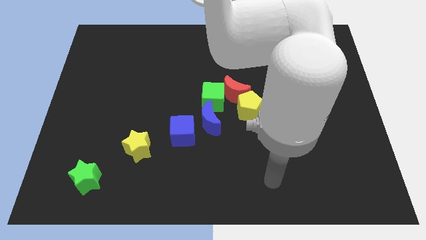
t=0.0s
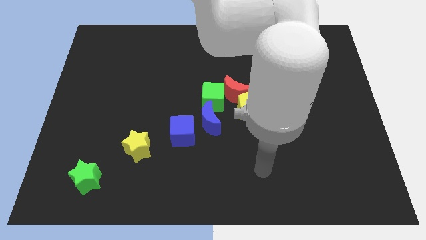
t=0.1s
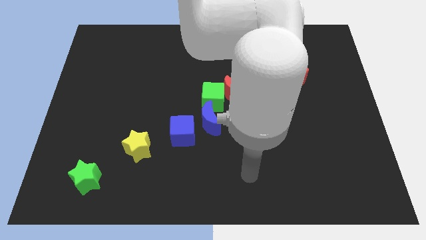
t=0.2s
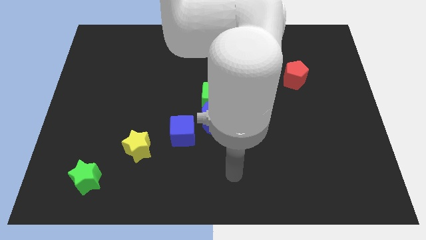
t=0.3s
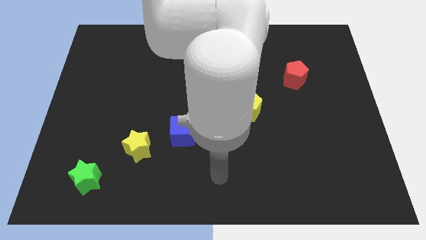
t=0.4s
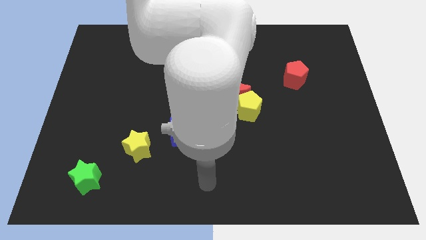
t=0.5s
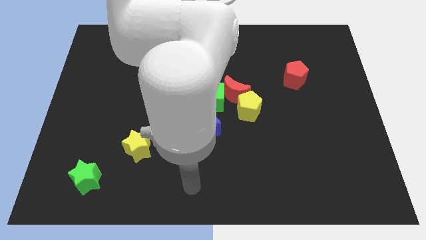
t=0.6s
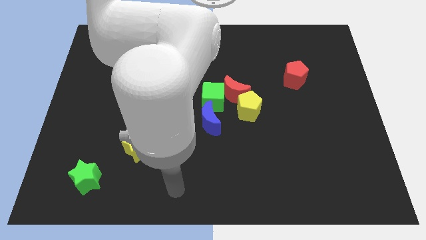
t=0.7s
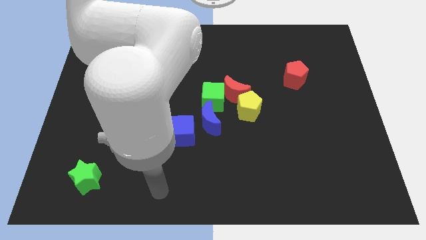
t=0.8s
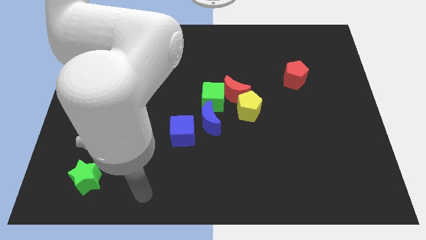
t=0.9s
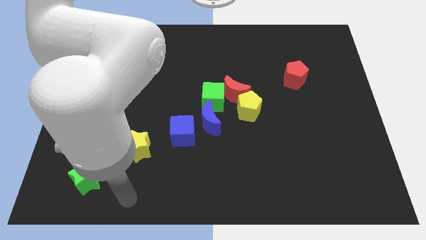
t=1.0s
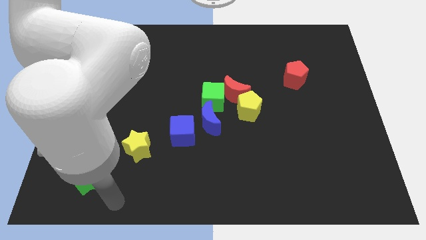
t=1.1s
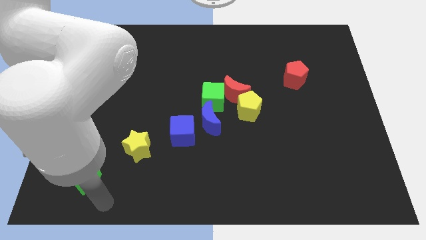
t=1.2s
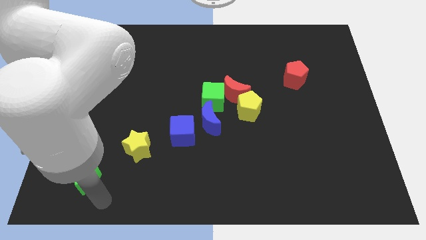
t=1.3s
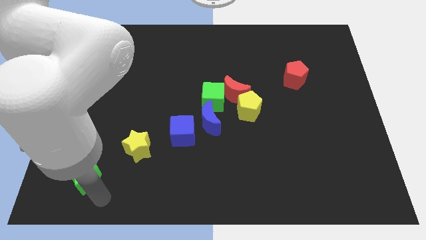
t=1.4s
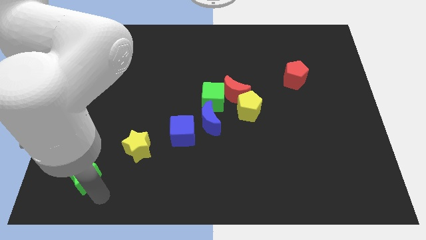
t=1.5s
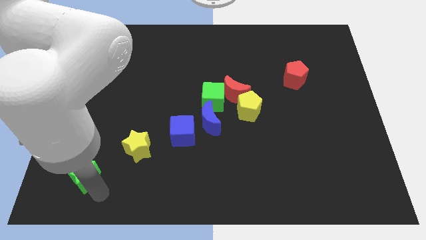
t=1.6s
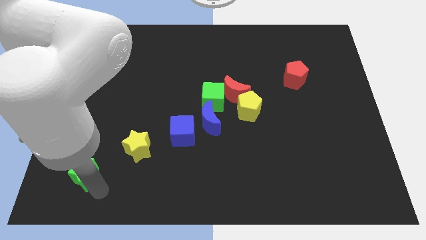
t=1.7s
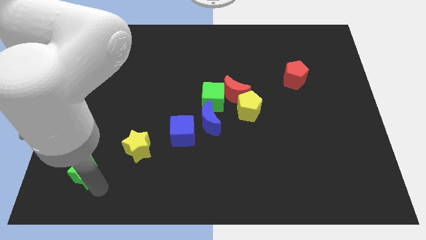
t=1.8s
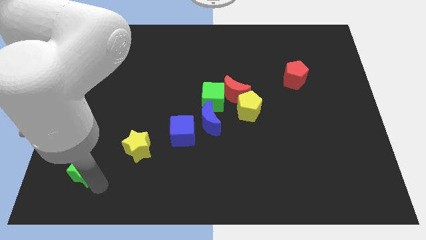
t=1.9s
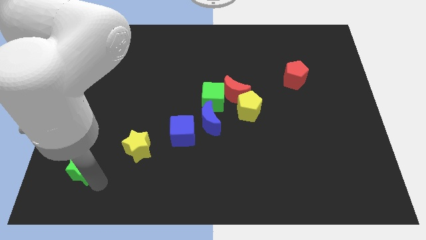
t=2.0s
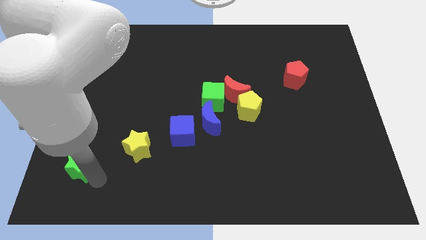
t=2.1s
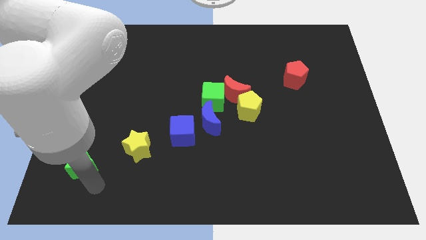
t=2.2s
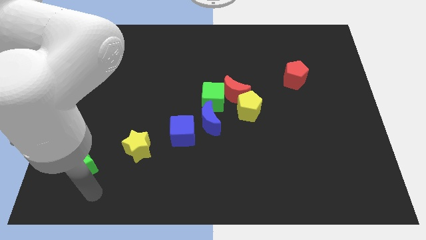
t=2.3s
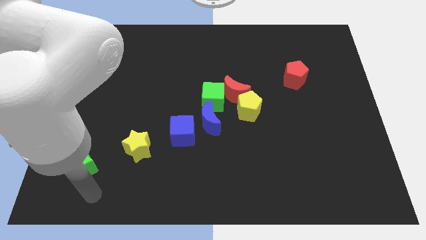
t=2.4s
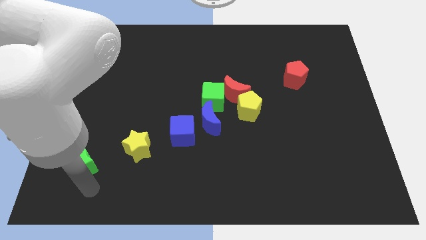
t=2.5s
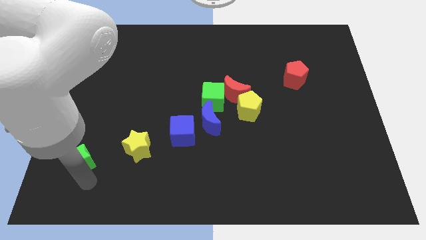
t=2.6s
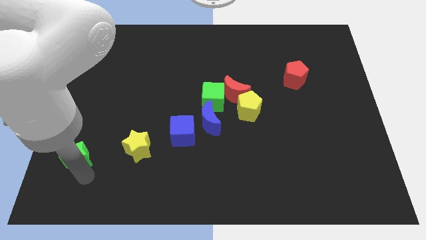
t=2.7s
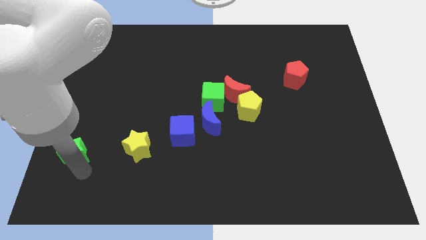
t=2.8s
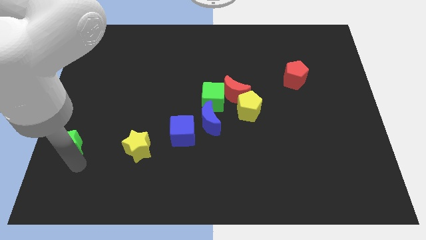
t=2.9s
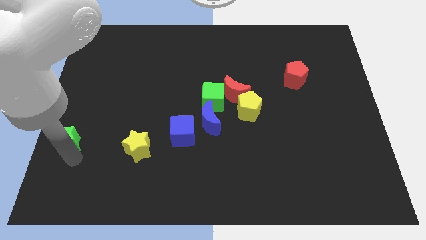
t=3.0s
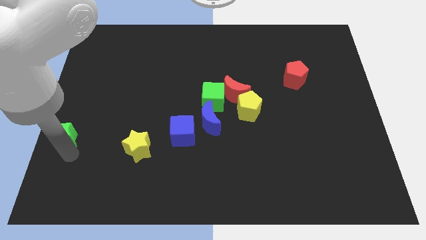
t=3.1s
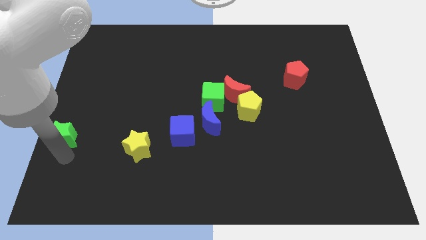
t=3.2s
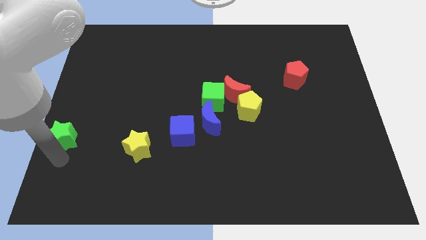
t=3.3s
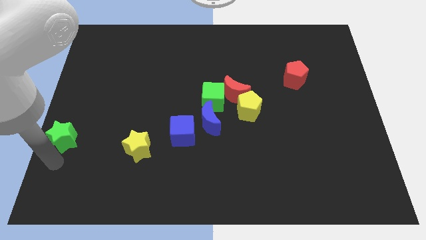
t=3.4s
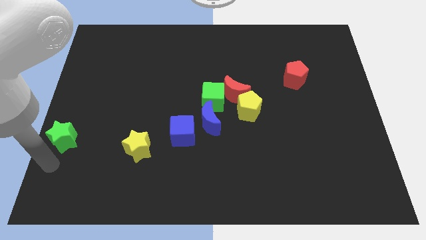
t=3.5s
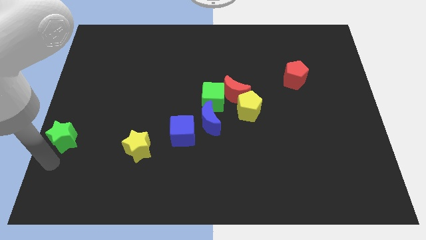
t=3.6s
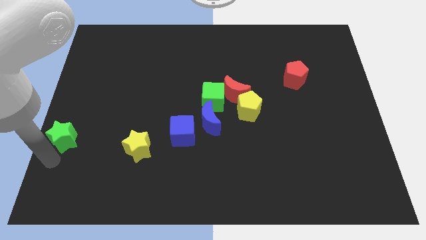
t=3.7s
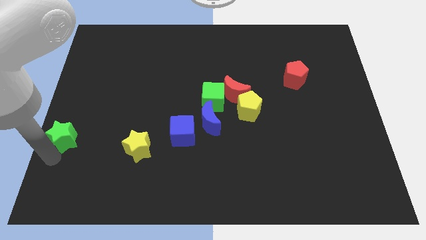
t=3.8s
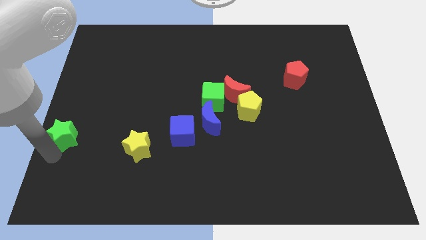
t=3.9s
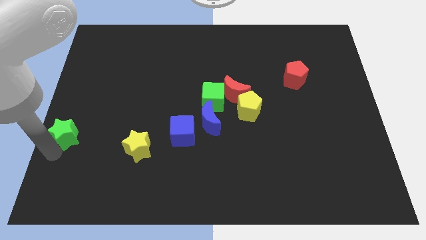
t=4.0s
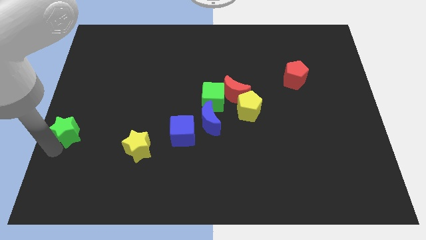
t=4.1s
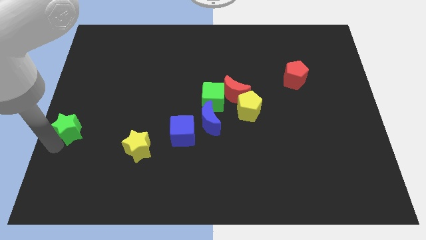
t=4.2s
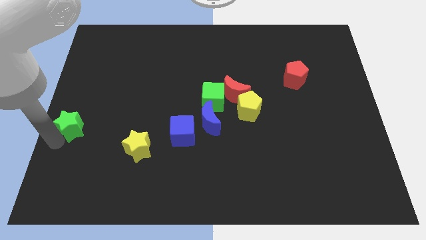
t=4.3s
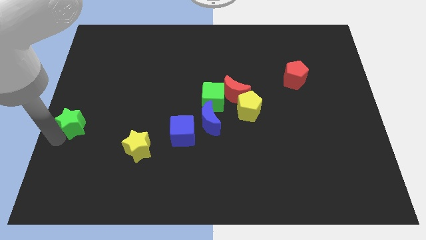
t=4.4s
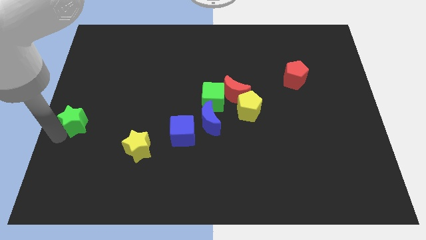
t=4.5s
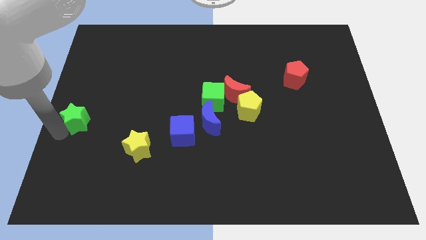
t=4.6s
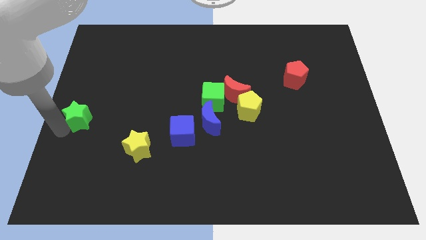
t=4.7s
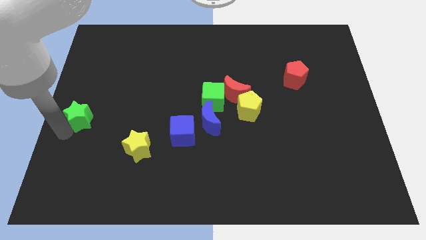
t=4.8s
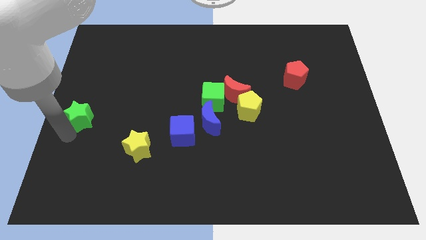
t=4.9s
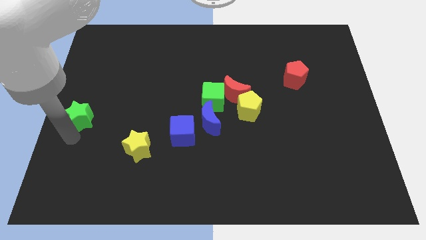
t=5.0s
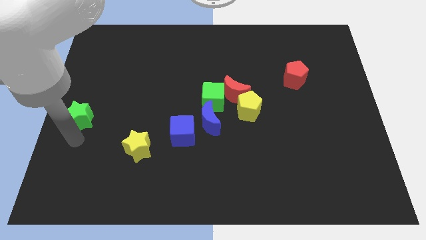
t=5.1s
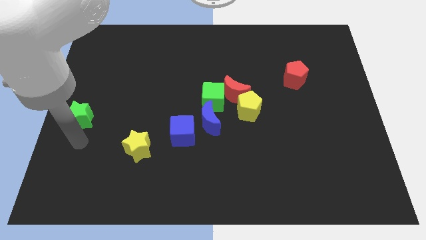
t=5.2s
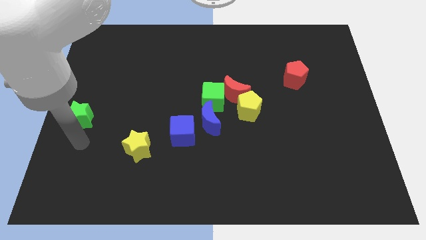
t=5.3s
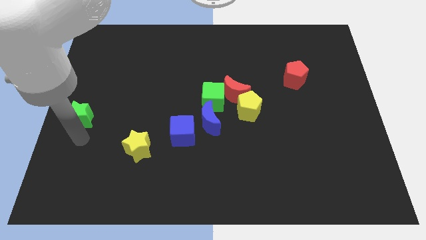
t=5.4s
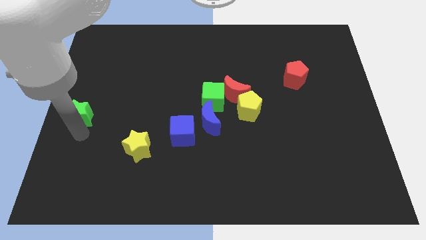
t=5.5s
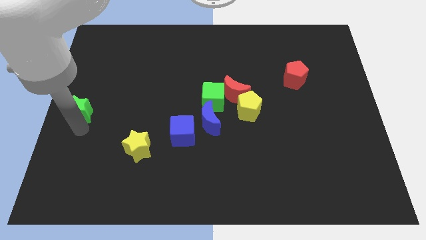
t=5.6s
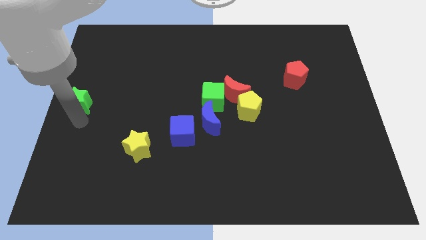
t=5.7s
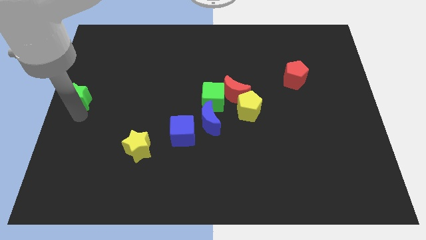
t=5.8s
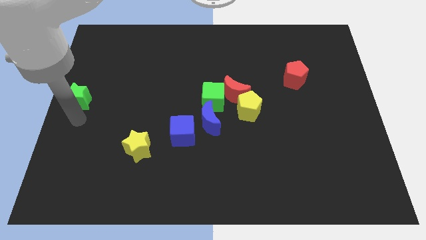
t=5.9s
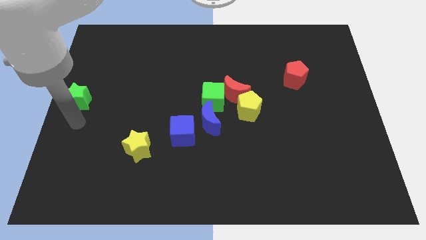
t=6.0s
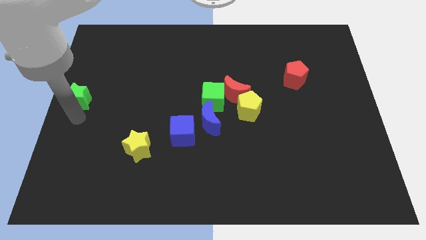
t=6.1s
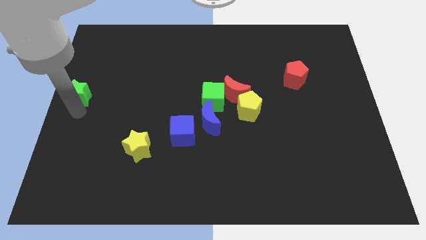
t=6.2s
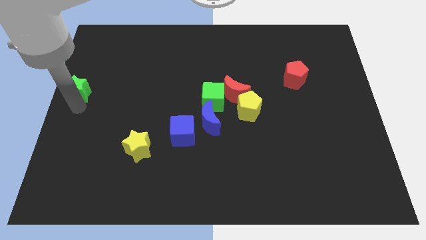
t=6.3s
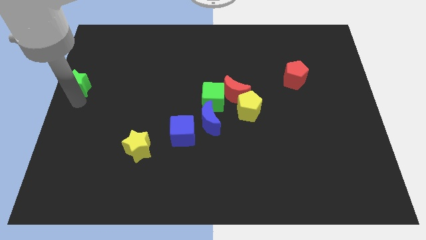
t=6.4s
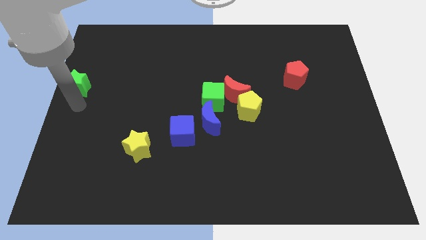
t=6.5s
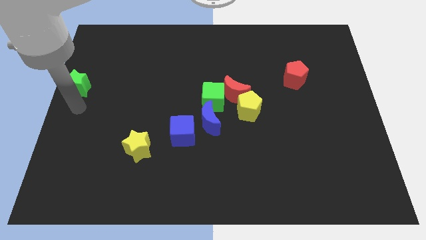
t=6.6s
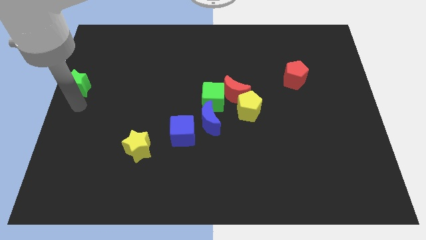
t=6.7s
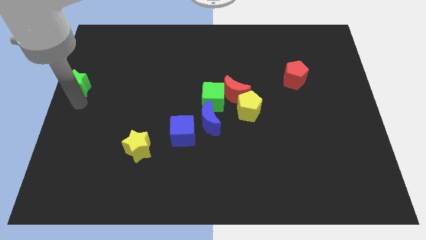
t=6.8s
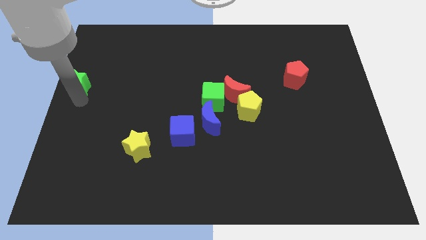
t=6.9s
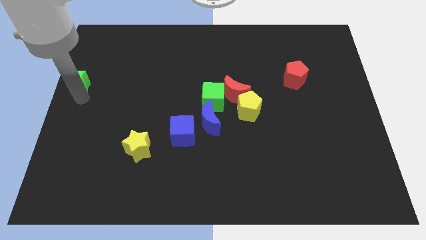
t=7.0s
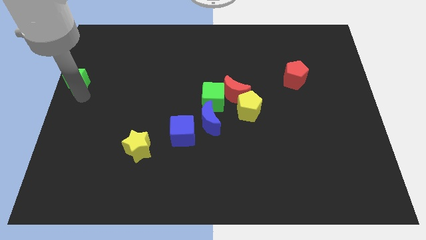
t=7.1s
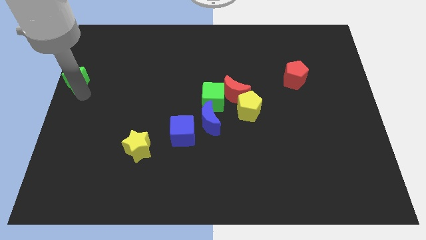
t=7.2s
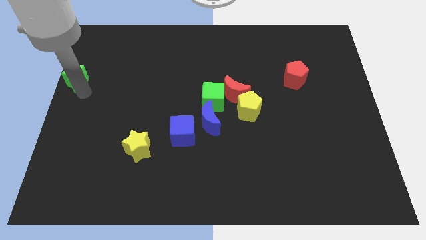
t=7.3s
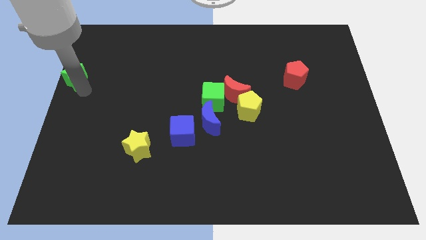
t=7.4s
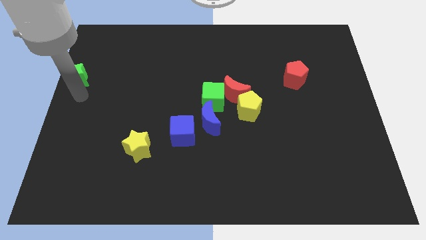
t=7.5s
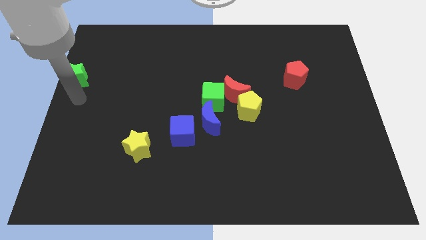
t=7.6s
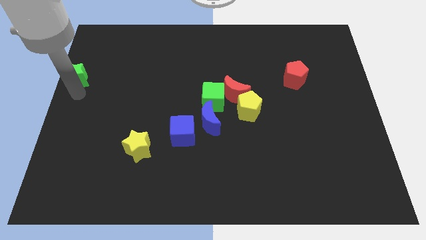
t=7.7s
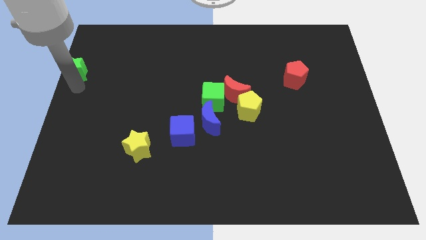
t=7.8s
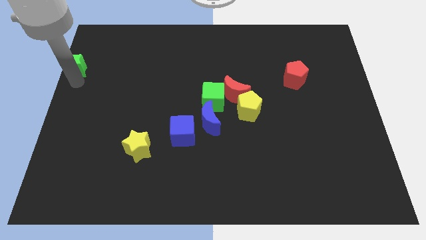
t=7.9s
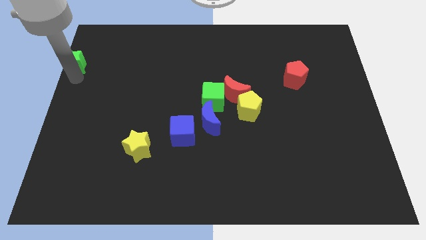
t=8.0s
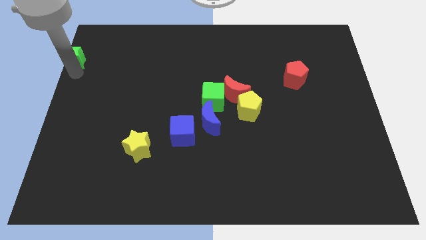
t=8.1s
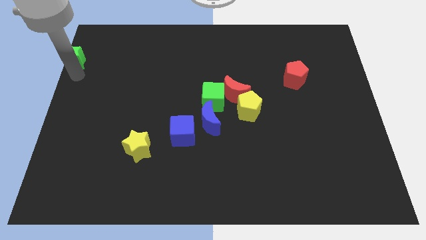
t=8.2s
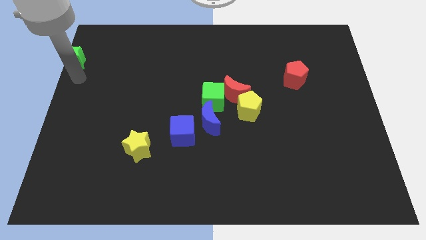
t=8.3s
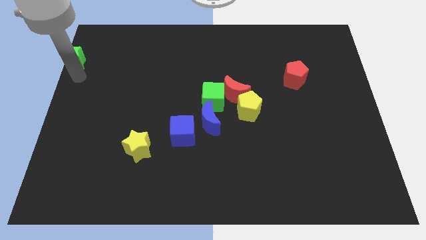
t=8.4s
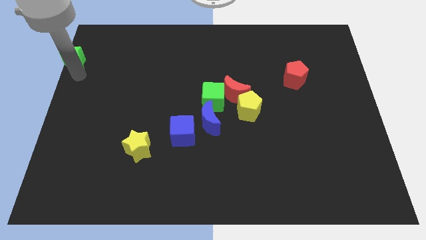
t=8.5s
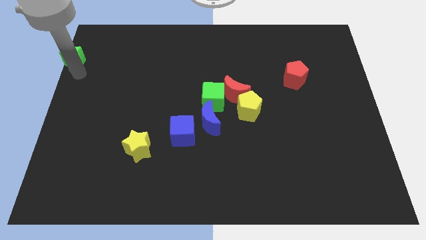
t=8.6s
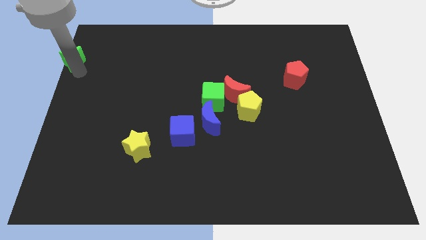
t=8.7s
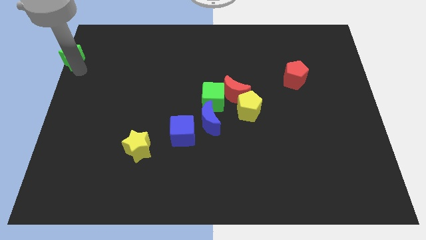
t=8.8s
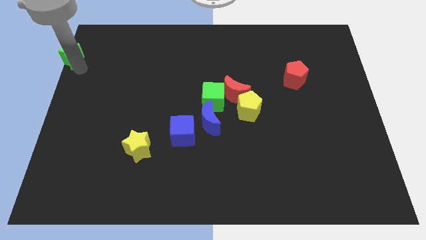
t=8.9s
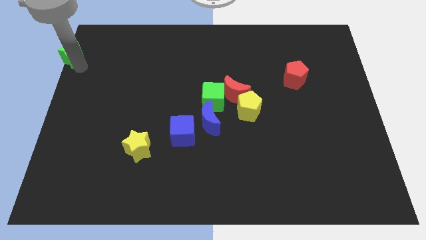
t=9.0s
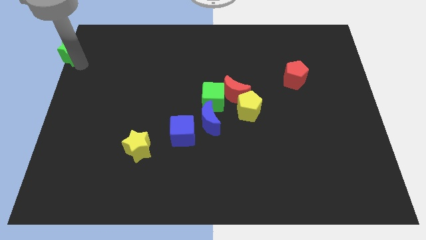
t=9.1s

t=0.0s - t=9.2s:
push the green star to the top left corner
